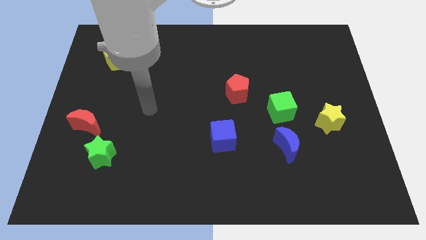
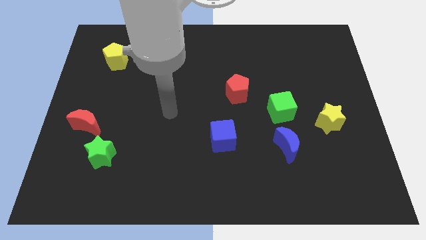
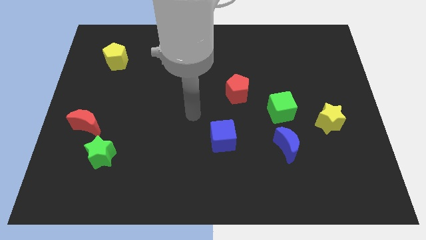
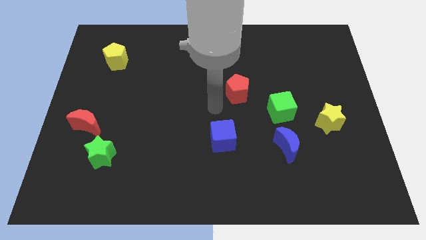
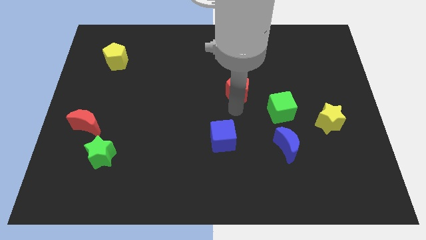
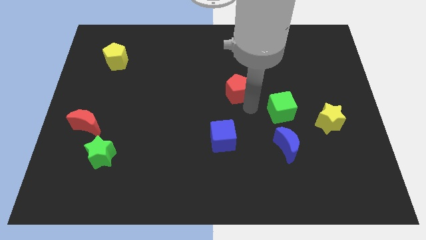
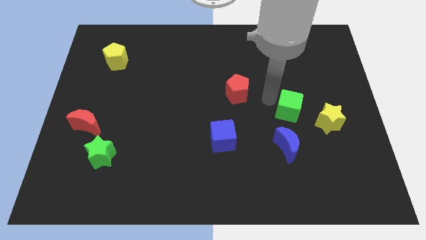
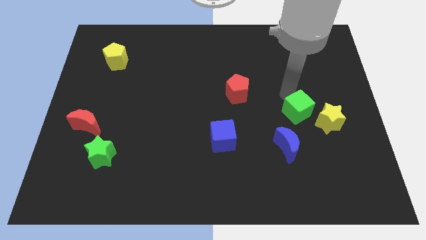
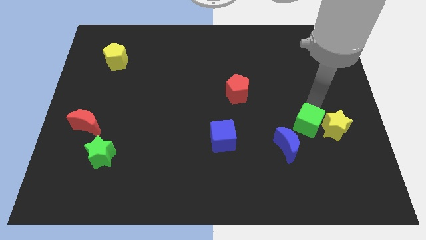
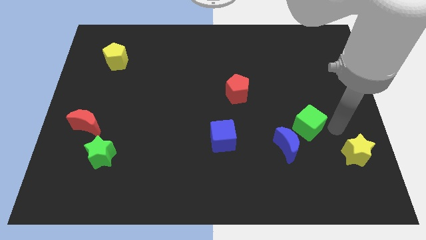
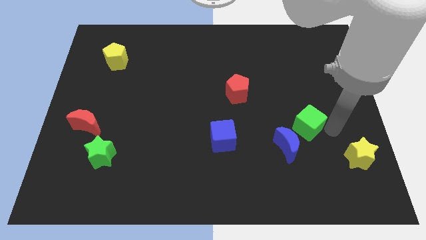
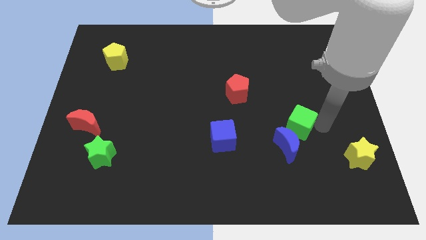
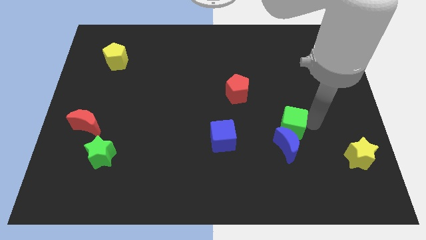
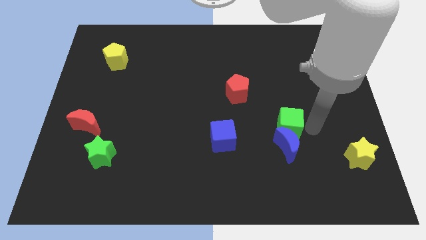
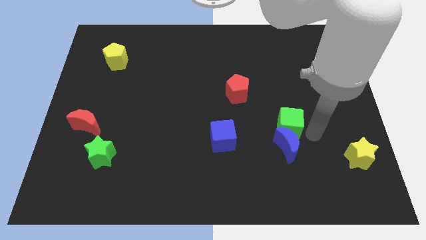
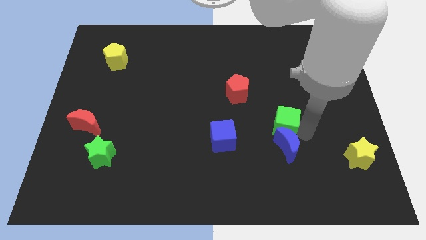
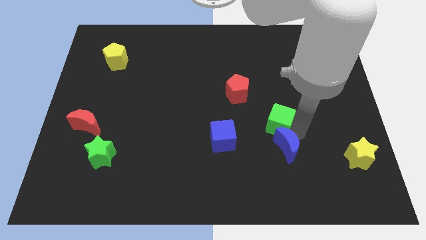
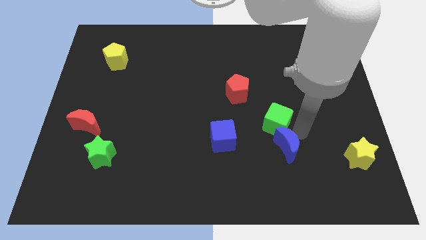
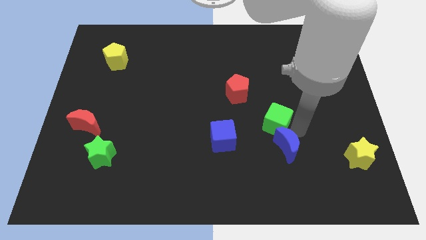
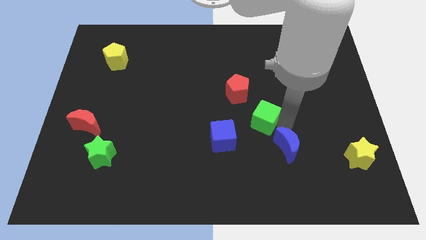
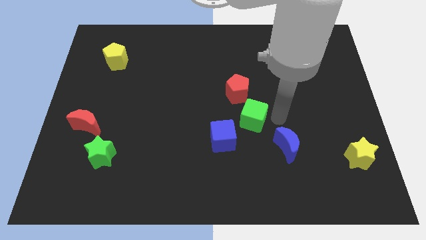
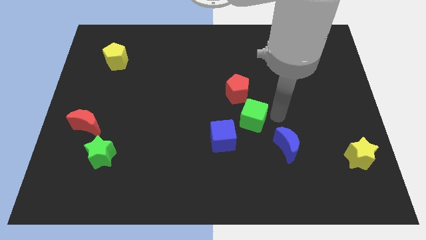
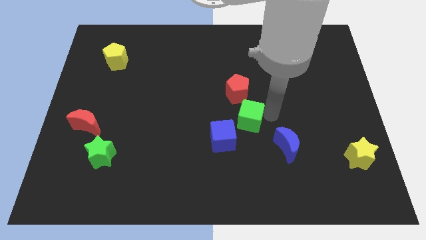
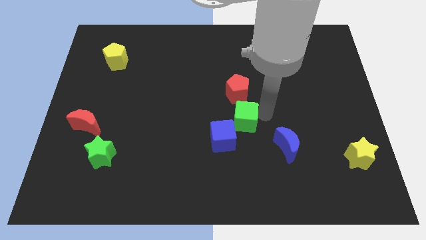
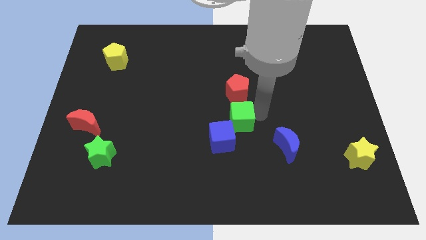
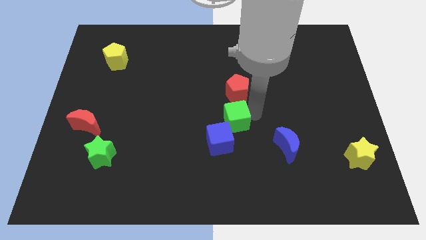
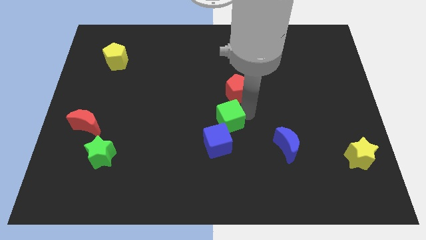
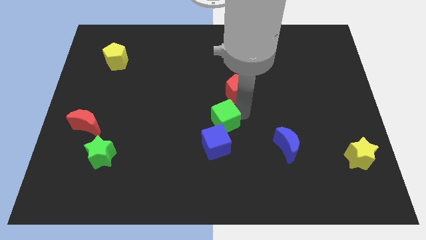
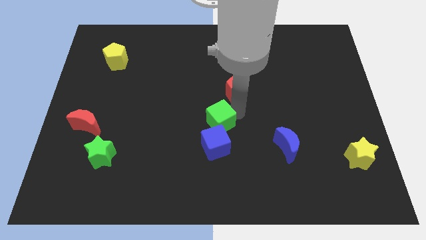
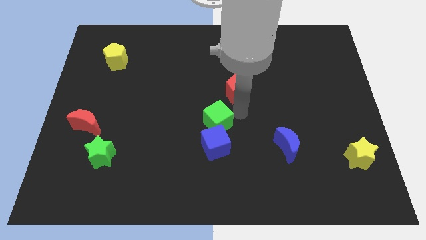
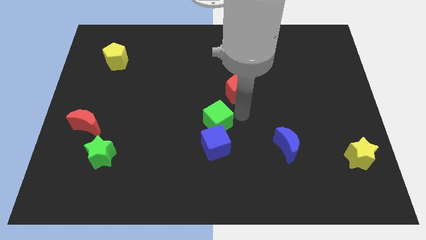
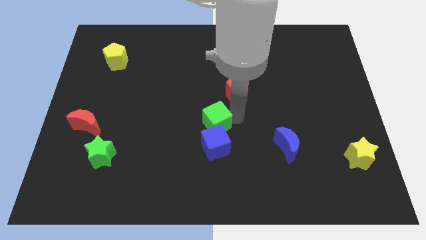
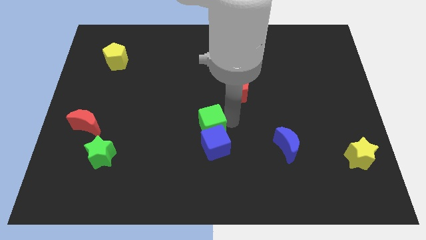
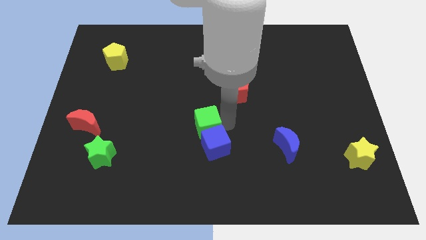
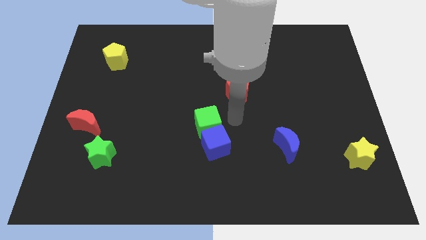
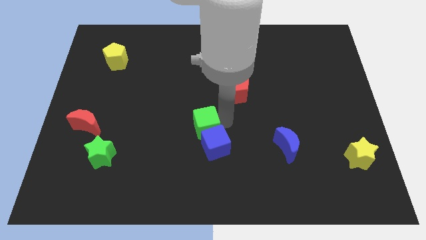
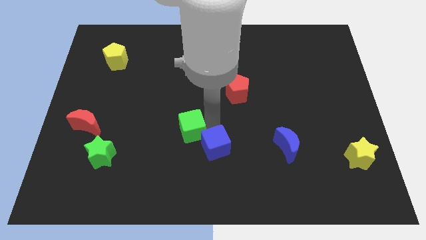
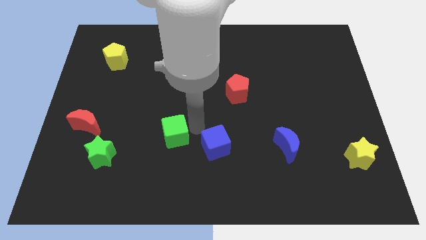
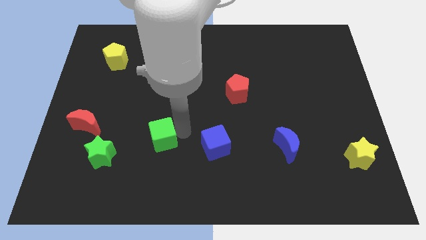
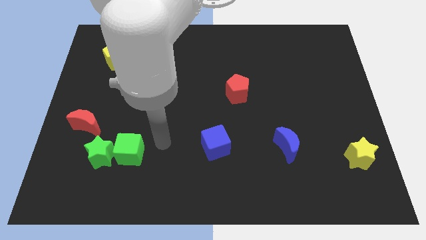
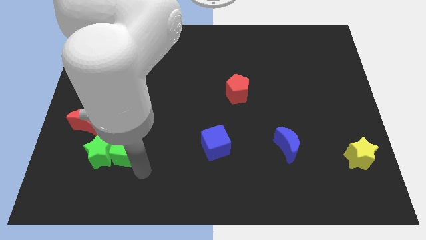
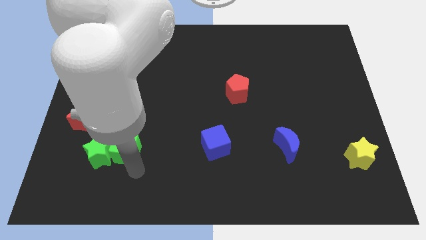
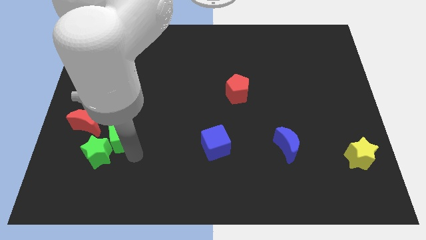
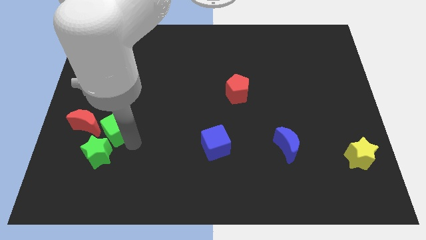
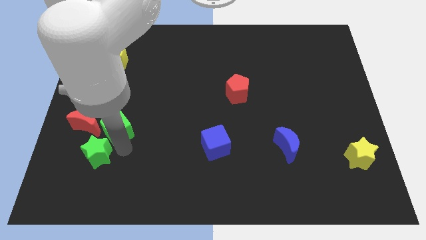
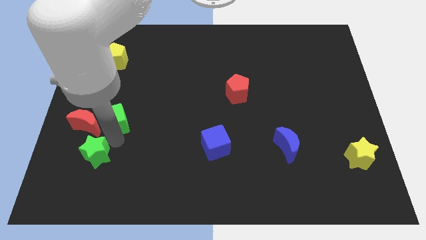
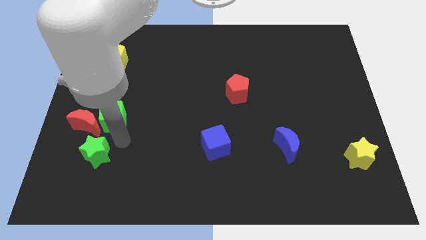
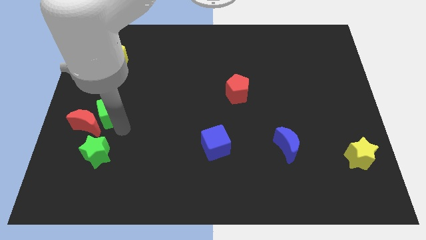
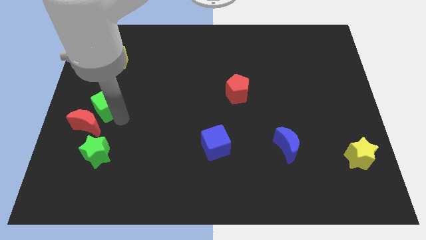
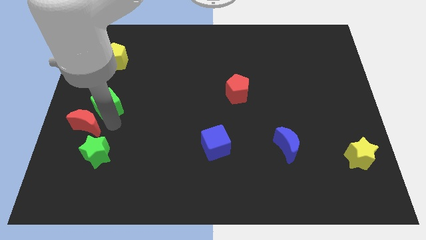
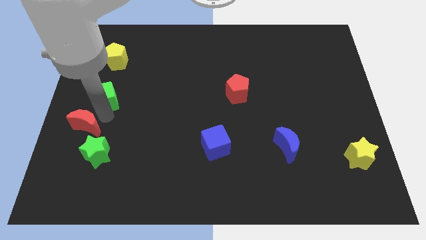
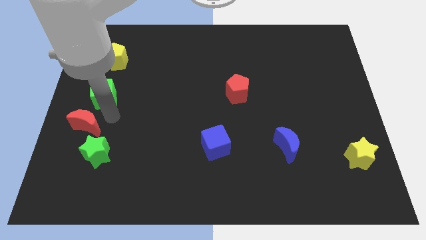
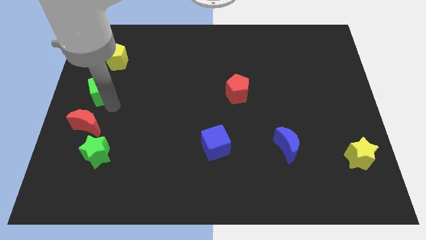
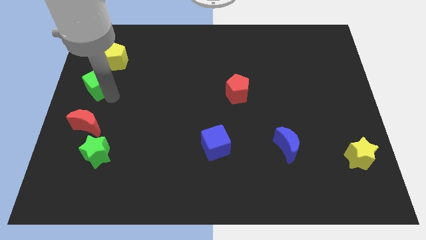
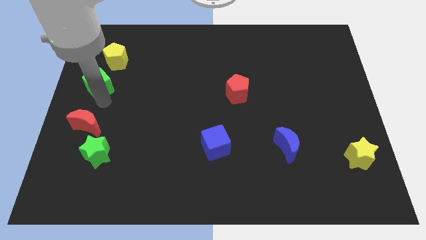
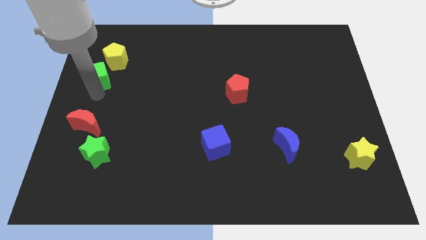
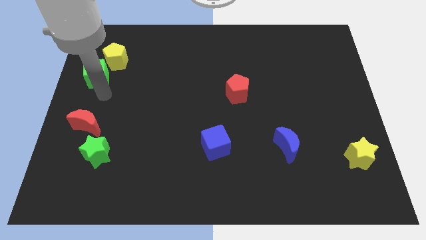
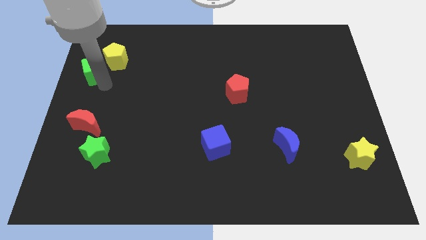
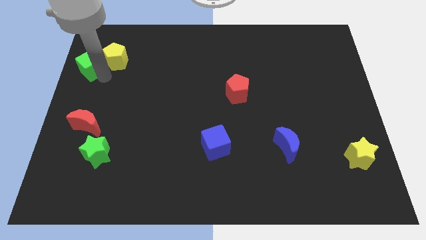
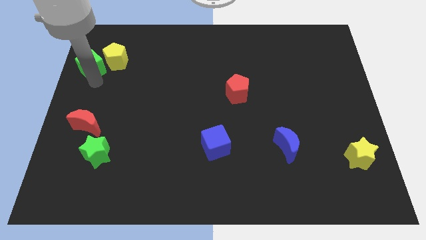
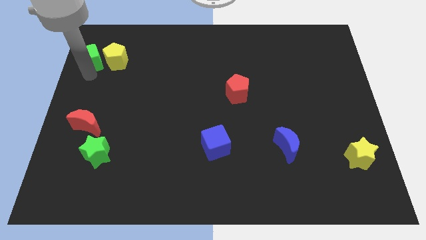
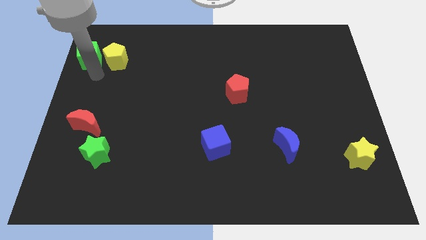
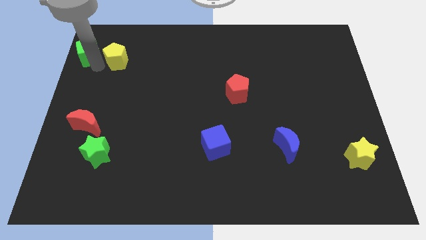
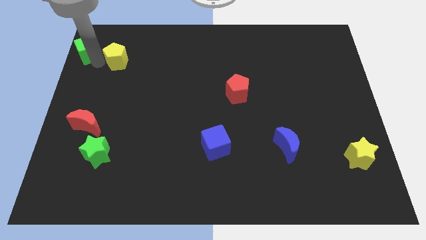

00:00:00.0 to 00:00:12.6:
put the green cube to the top left corner

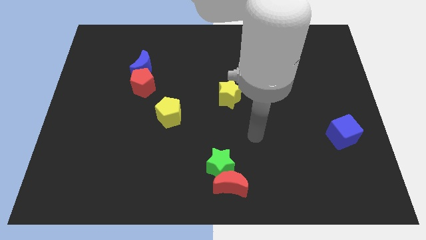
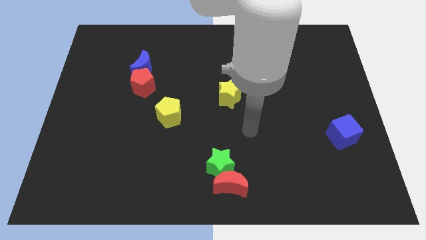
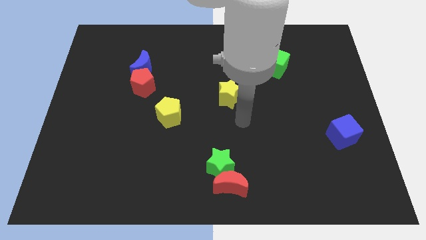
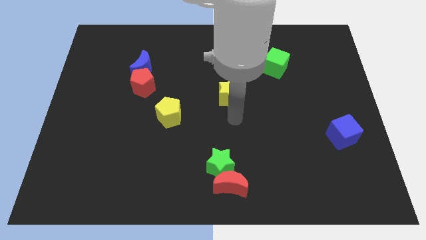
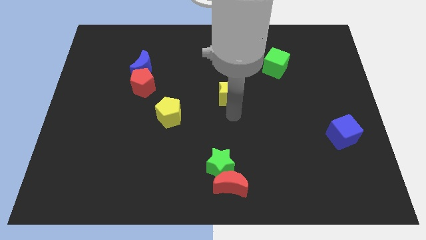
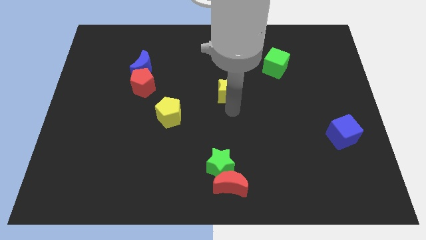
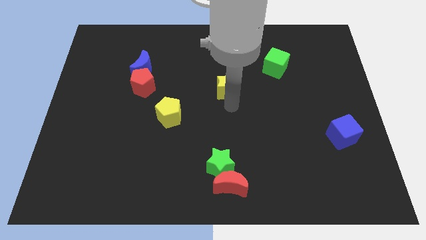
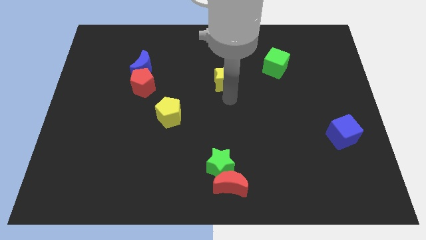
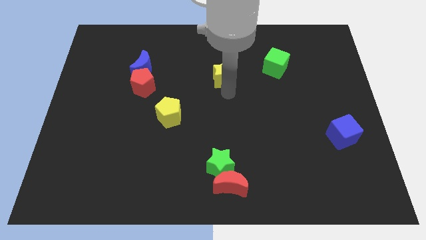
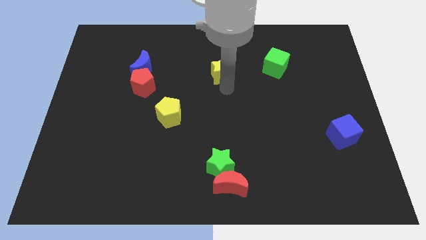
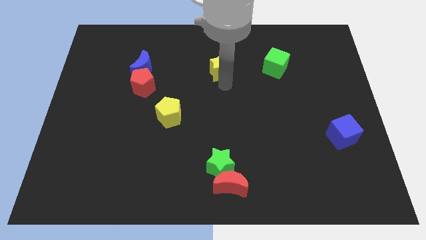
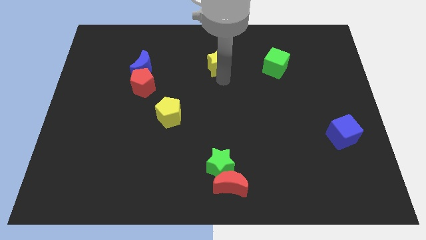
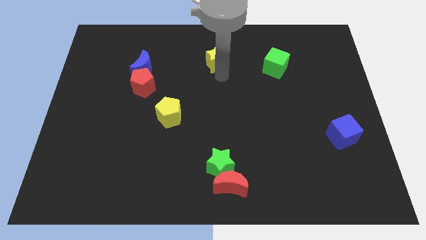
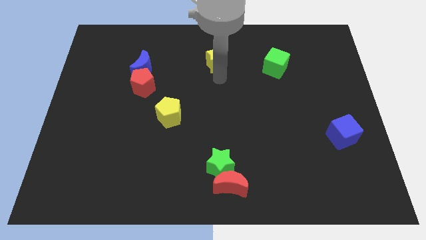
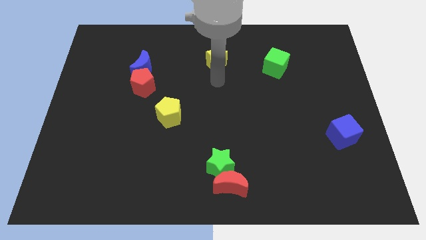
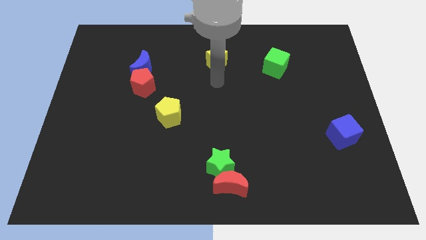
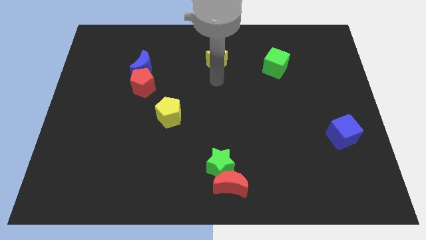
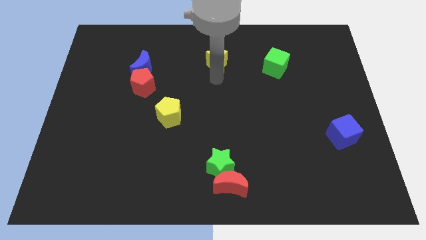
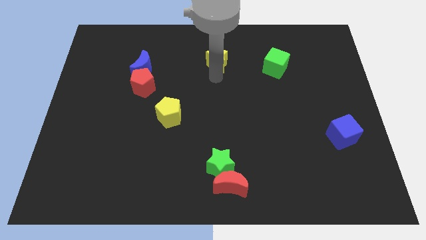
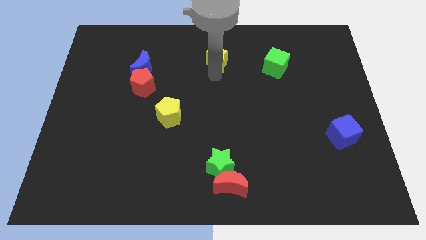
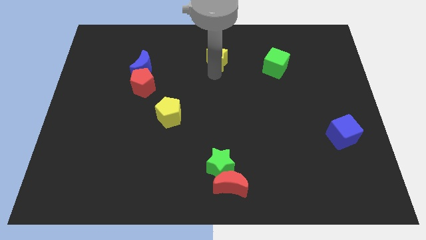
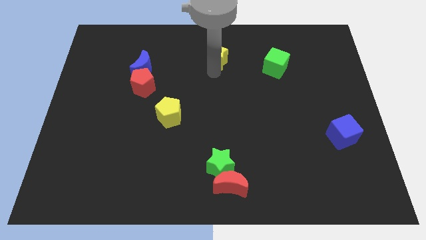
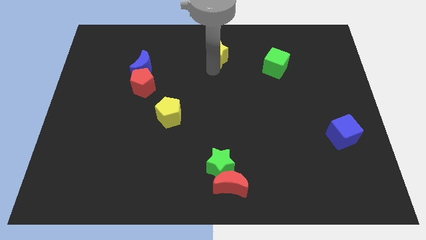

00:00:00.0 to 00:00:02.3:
move the yellow star to the towards your base
